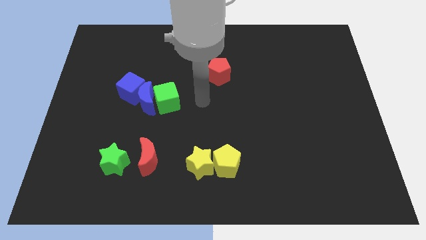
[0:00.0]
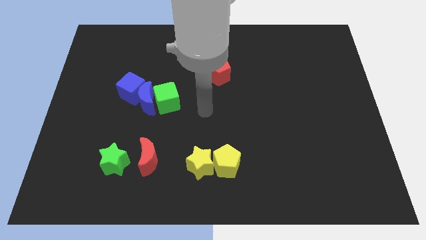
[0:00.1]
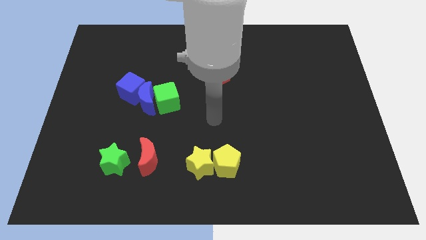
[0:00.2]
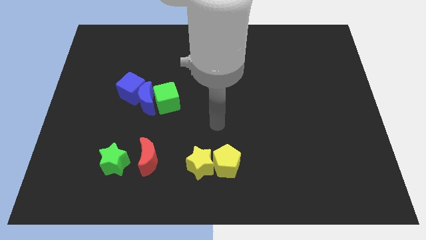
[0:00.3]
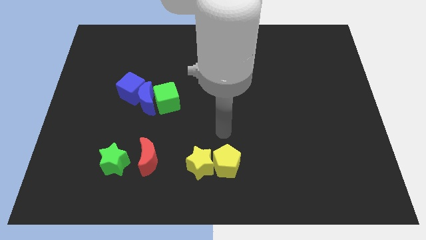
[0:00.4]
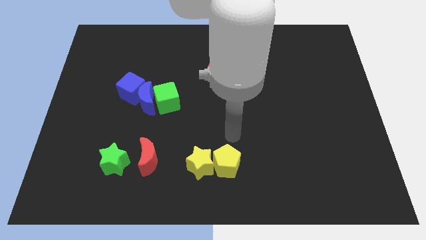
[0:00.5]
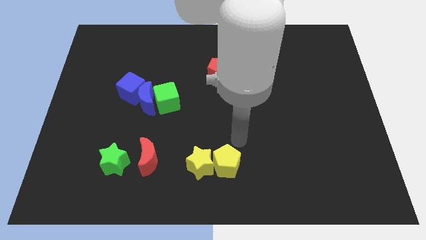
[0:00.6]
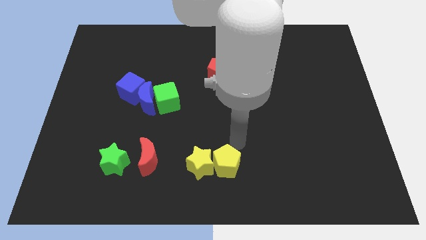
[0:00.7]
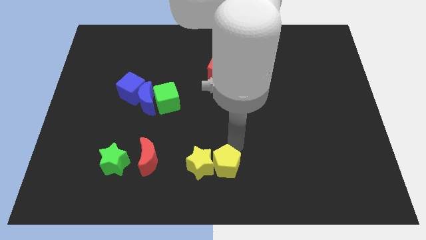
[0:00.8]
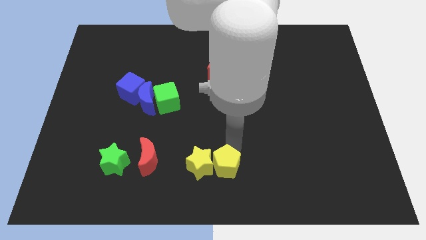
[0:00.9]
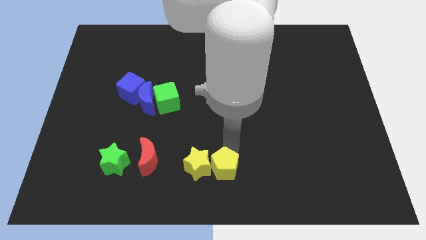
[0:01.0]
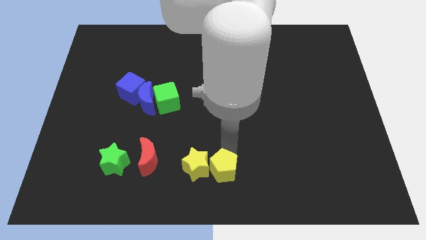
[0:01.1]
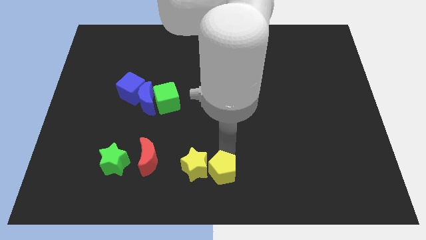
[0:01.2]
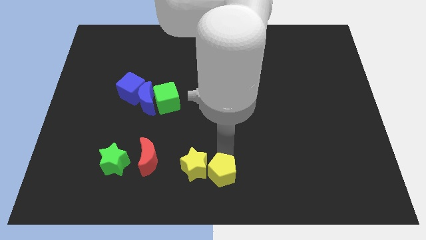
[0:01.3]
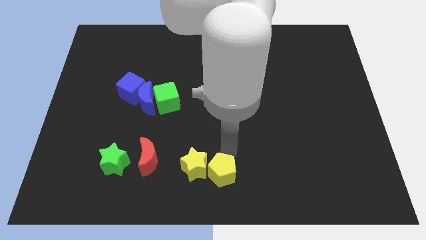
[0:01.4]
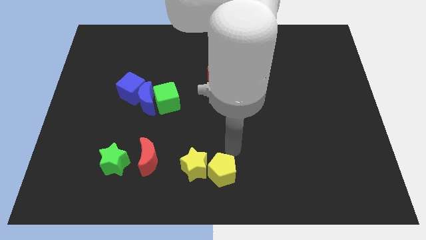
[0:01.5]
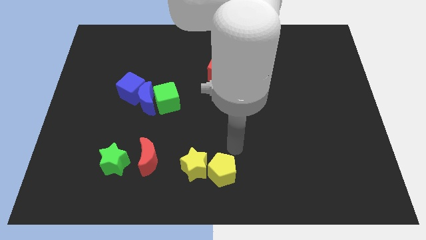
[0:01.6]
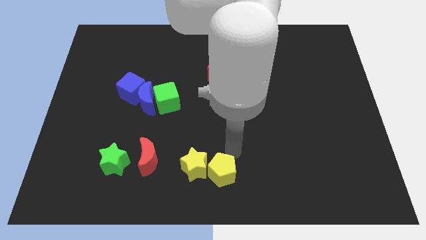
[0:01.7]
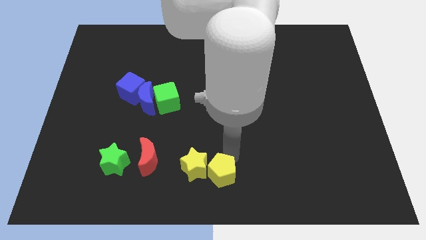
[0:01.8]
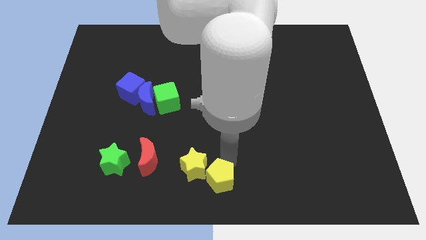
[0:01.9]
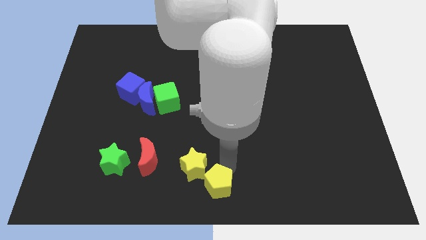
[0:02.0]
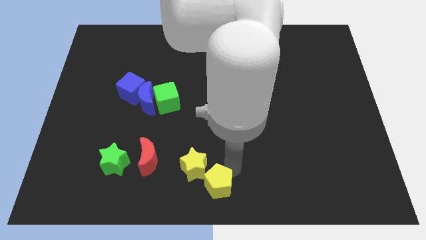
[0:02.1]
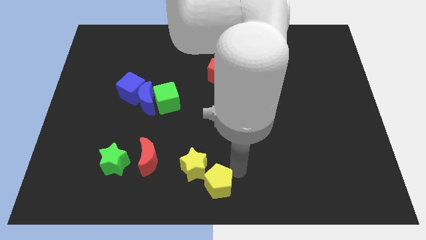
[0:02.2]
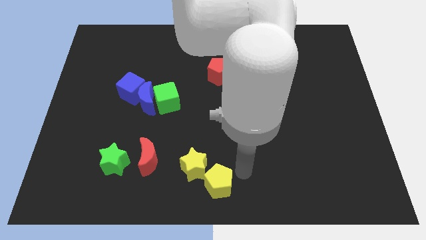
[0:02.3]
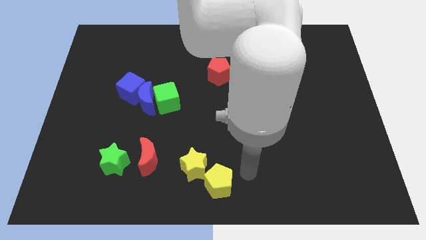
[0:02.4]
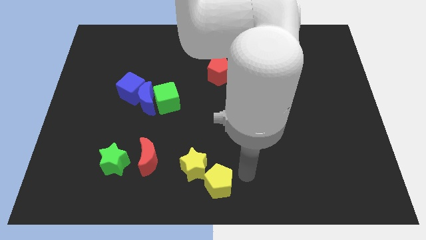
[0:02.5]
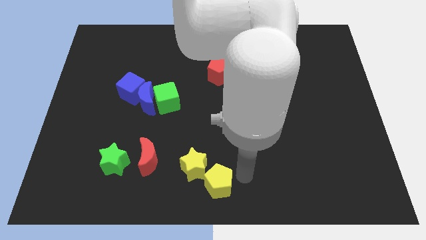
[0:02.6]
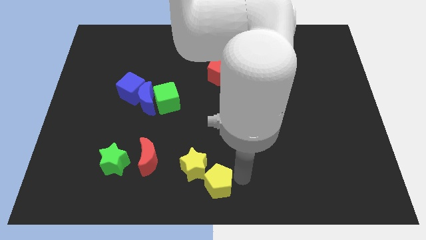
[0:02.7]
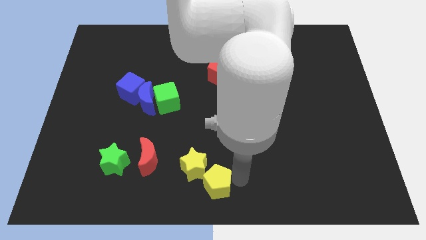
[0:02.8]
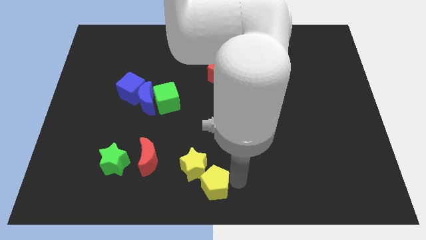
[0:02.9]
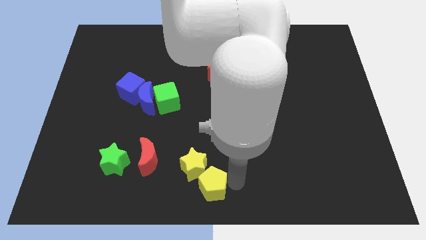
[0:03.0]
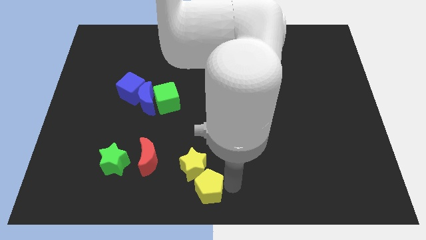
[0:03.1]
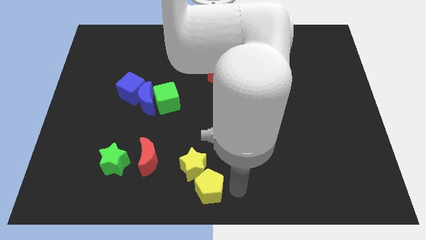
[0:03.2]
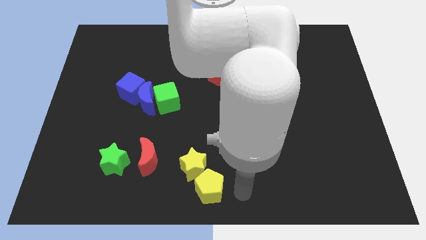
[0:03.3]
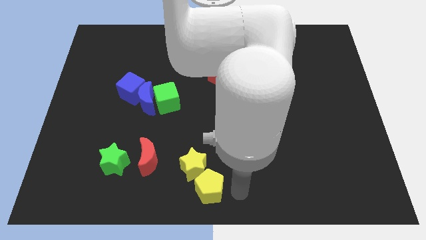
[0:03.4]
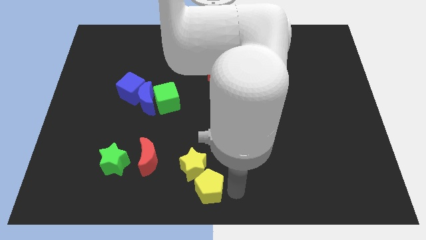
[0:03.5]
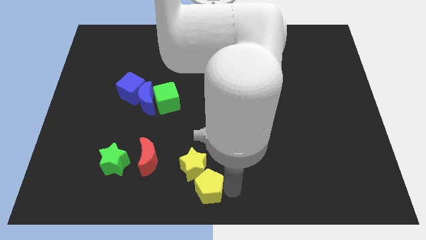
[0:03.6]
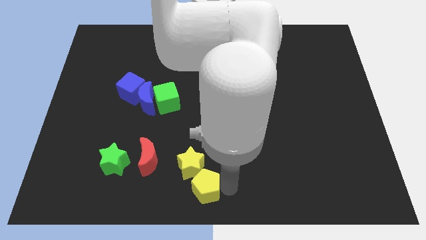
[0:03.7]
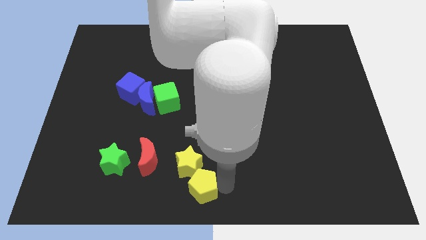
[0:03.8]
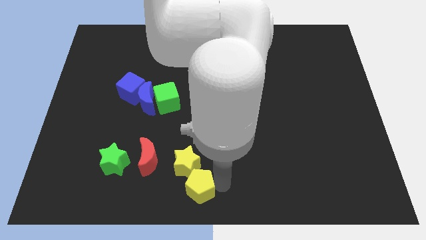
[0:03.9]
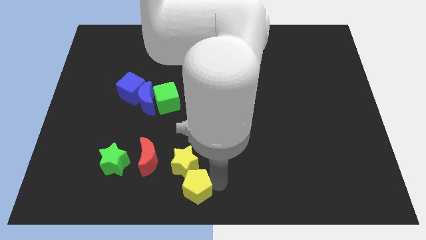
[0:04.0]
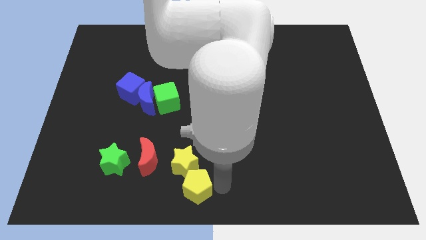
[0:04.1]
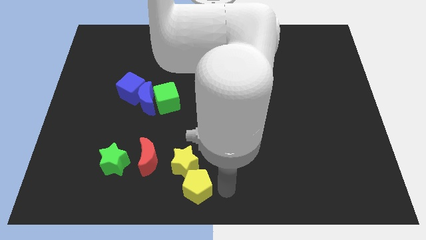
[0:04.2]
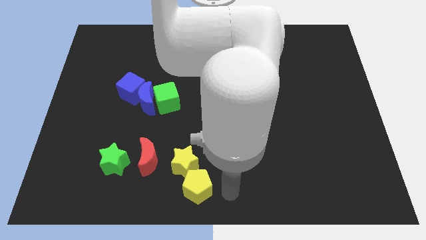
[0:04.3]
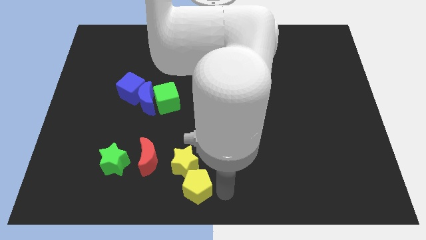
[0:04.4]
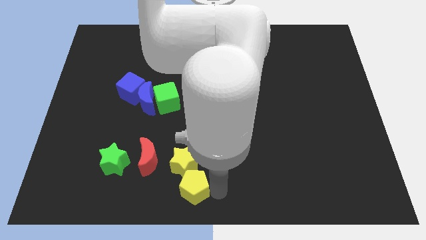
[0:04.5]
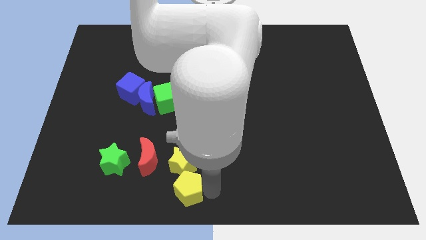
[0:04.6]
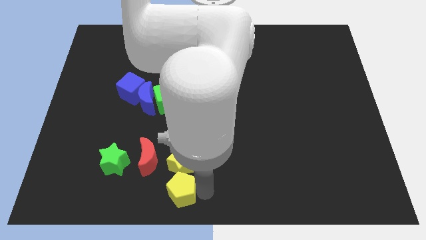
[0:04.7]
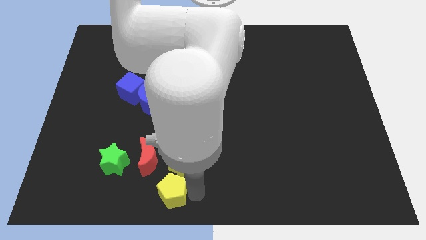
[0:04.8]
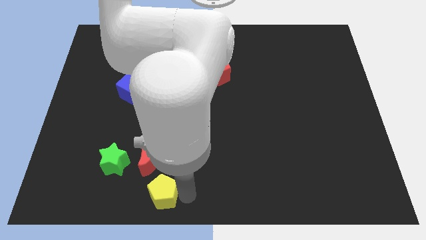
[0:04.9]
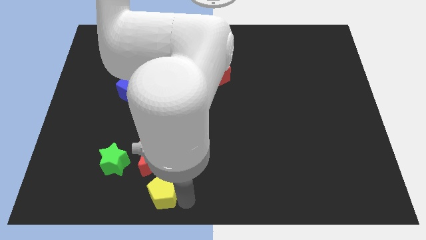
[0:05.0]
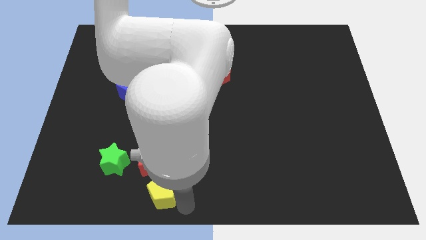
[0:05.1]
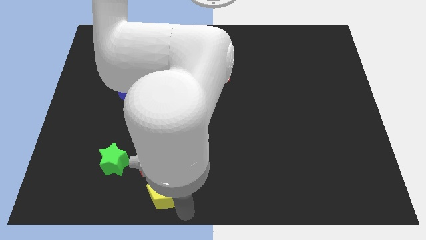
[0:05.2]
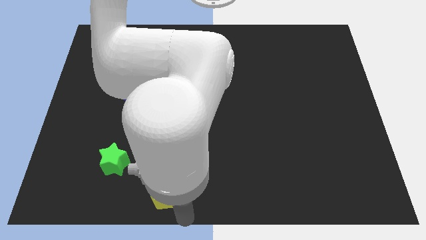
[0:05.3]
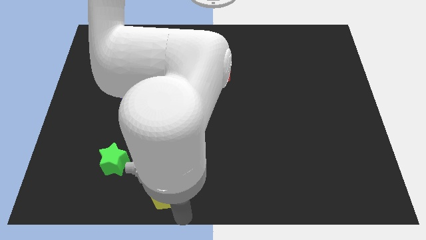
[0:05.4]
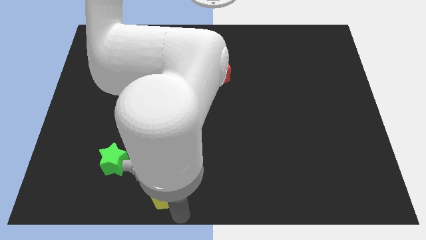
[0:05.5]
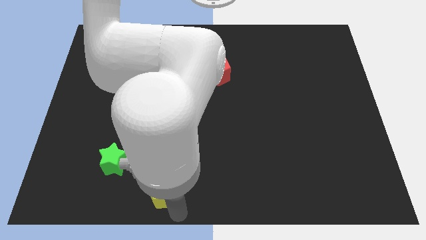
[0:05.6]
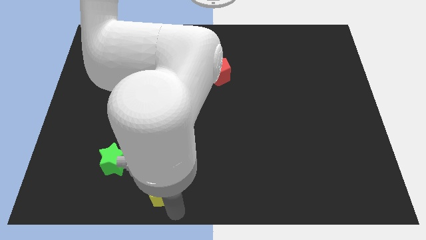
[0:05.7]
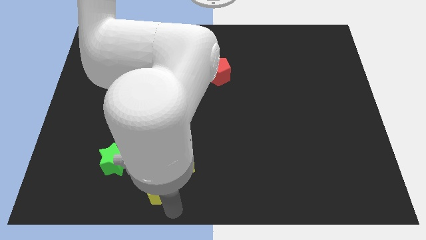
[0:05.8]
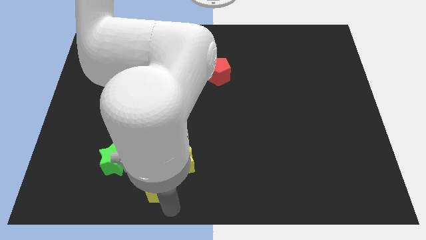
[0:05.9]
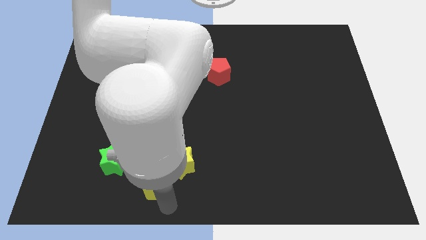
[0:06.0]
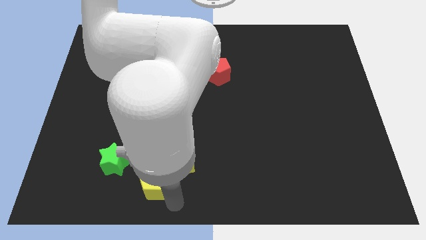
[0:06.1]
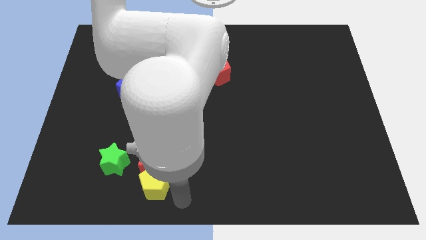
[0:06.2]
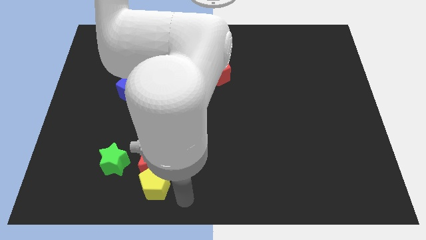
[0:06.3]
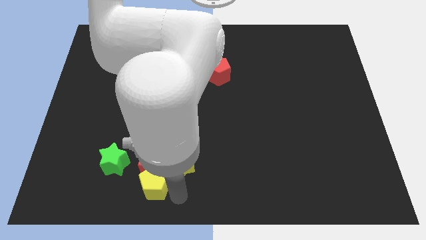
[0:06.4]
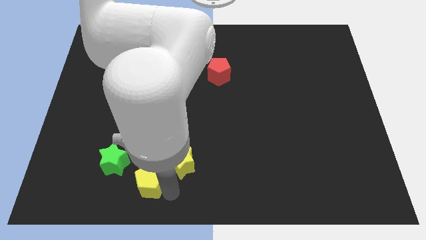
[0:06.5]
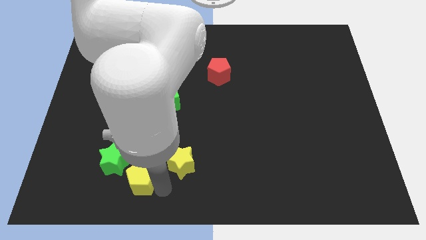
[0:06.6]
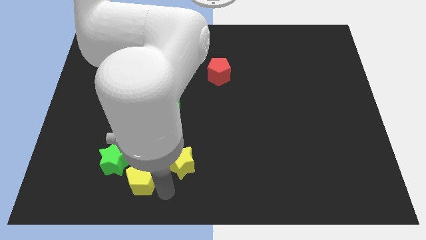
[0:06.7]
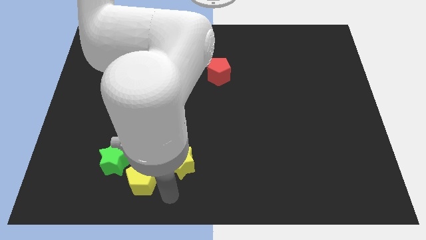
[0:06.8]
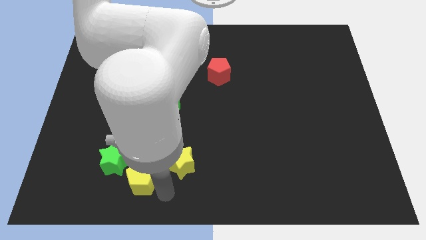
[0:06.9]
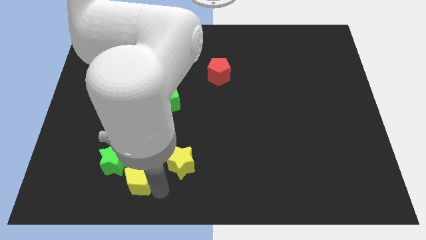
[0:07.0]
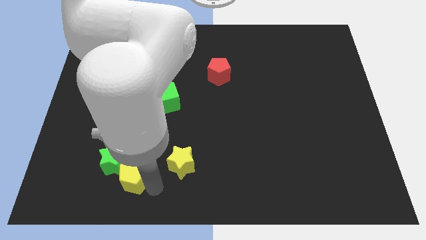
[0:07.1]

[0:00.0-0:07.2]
put the yellow pentagon close to the green star

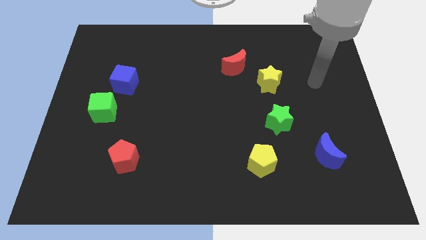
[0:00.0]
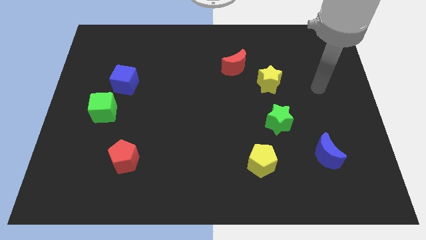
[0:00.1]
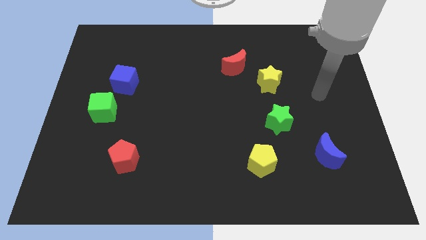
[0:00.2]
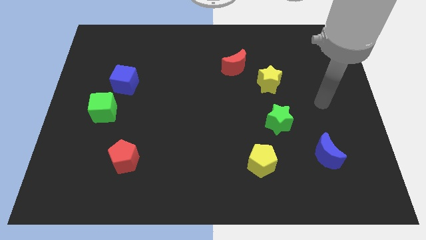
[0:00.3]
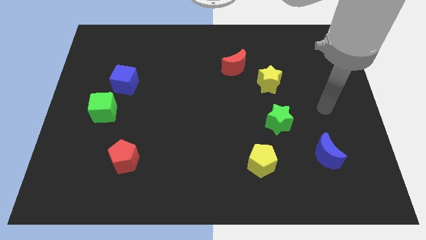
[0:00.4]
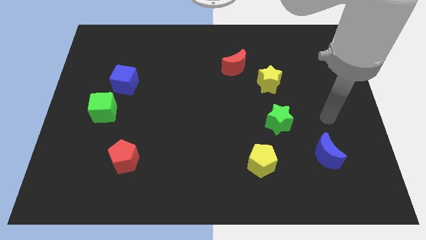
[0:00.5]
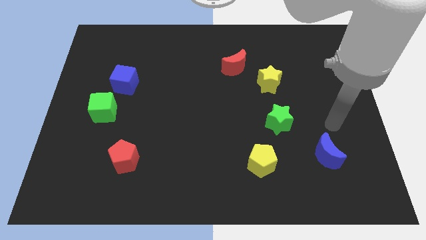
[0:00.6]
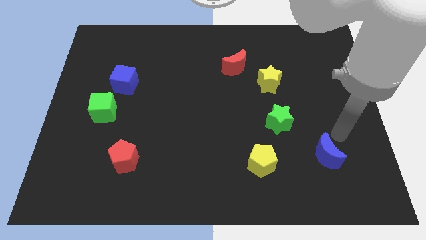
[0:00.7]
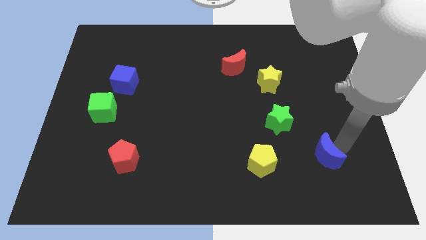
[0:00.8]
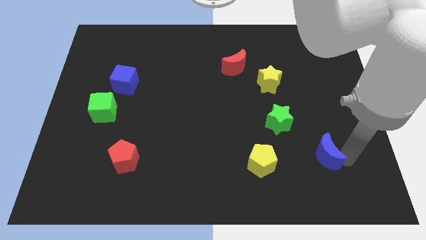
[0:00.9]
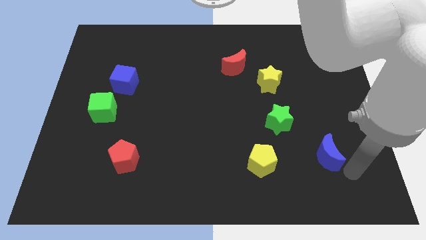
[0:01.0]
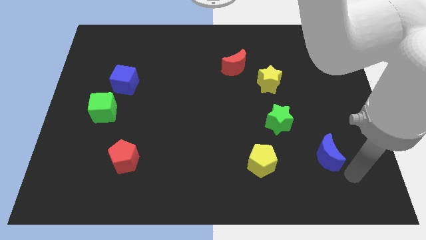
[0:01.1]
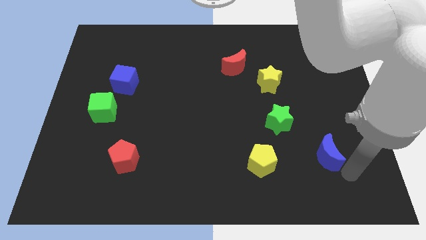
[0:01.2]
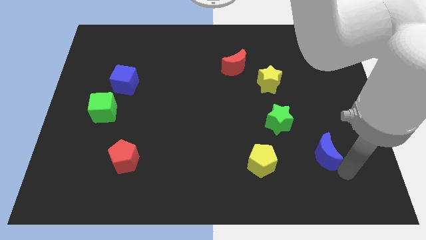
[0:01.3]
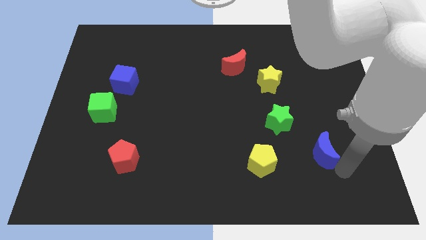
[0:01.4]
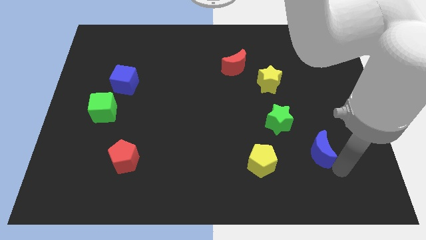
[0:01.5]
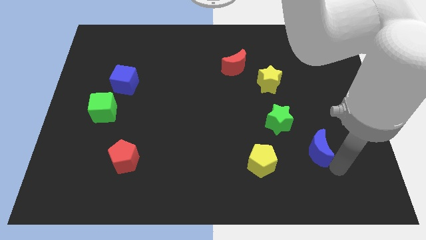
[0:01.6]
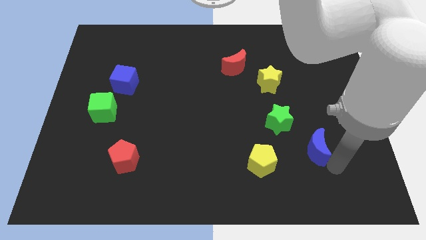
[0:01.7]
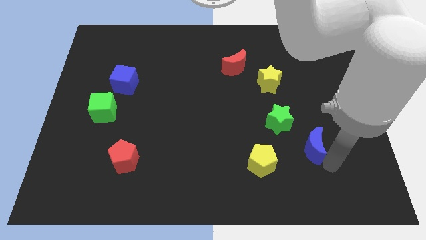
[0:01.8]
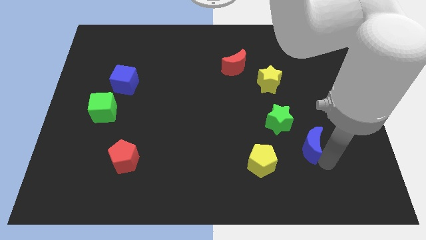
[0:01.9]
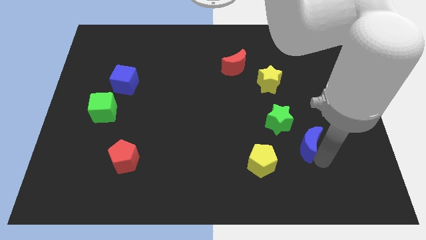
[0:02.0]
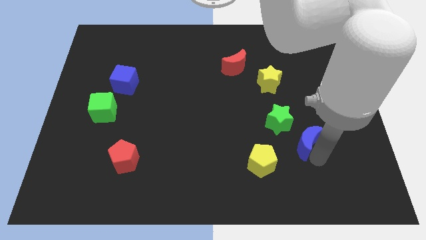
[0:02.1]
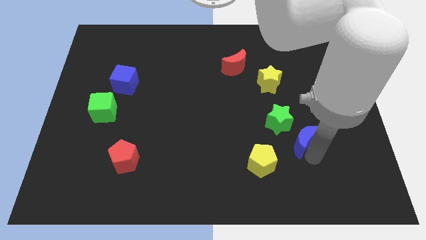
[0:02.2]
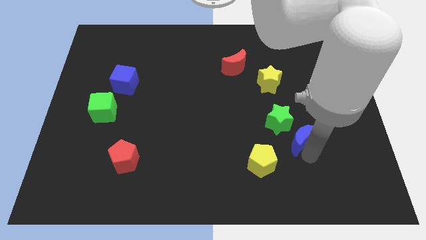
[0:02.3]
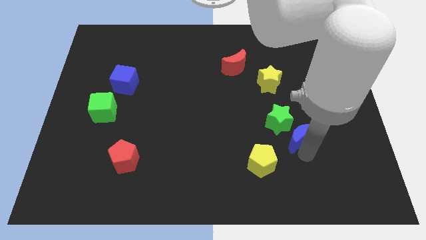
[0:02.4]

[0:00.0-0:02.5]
put the blue moon to the green star
